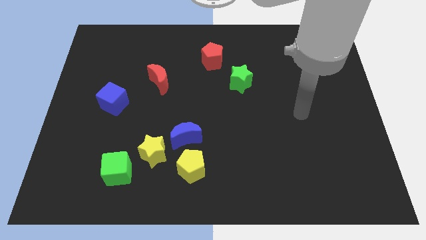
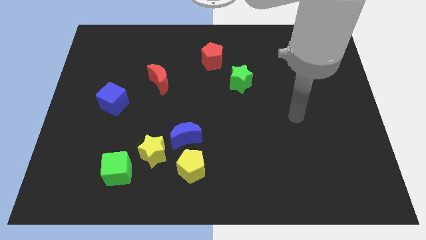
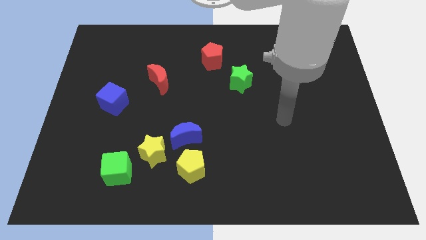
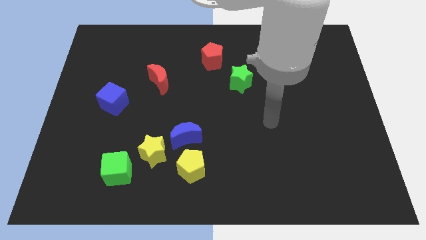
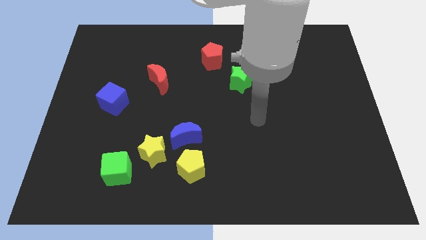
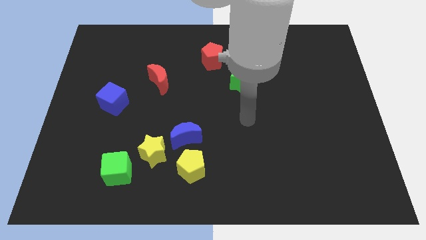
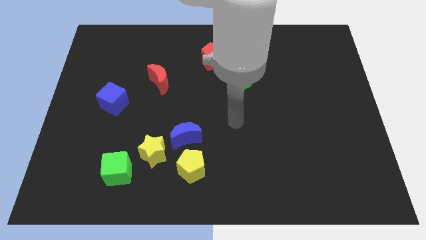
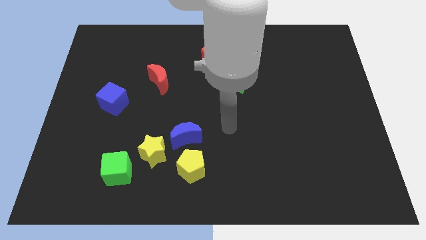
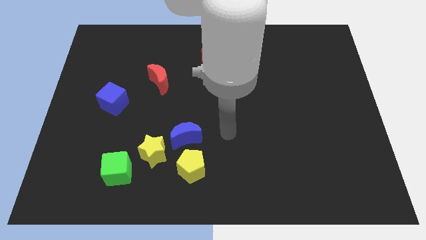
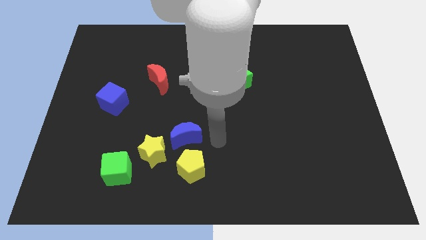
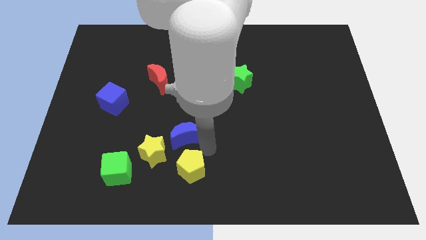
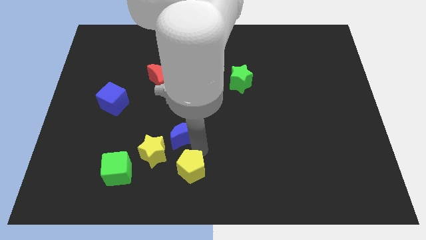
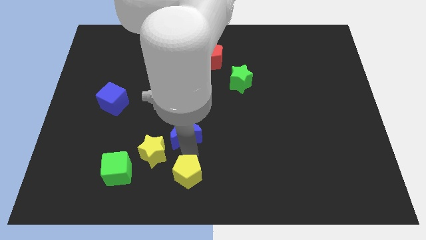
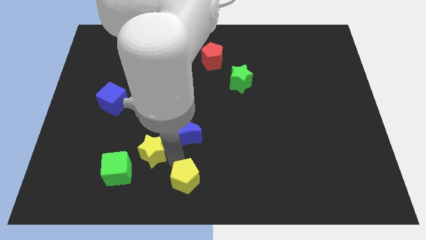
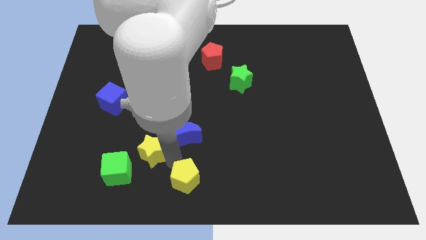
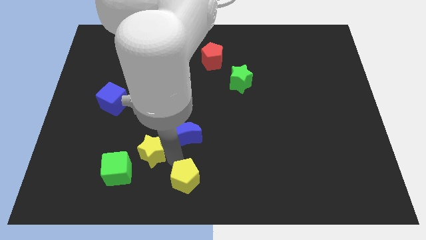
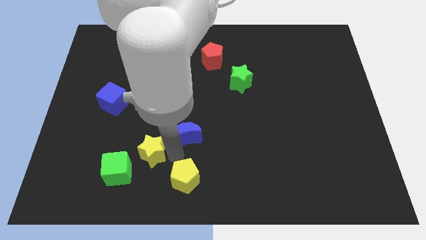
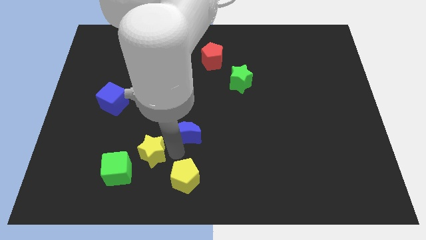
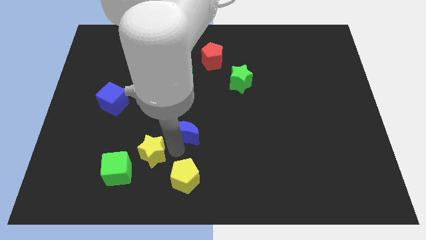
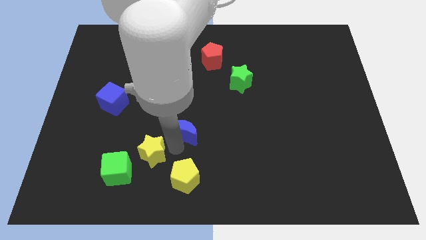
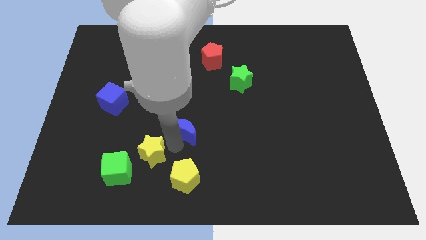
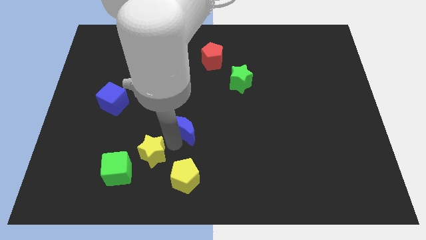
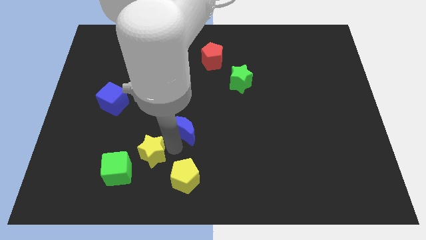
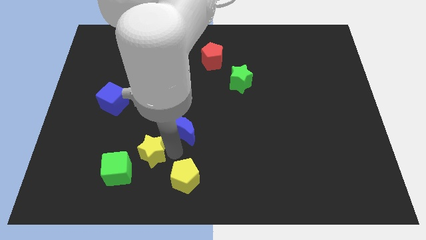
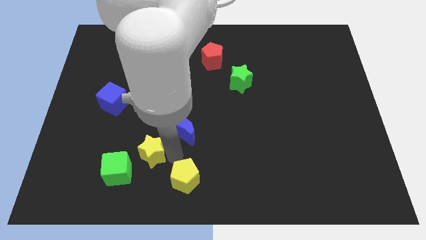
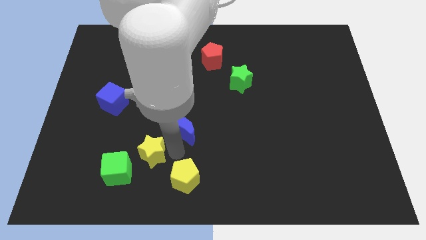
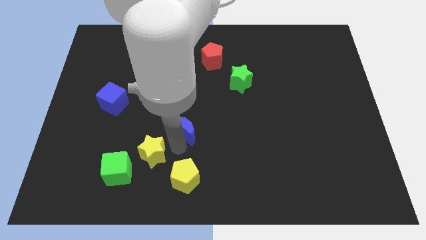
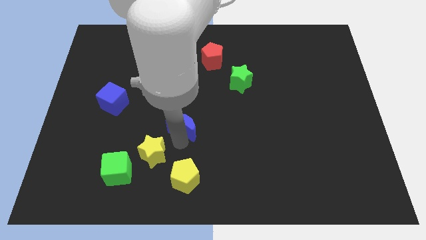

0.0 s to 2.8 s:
move the blue moon away from the yellow star and yellow pentagon

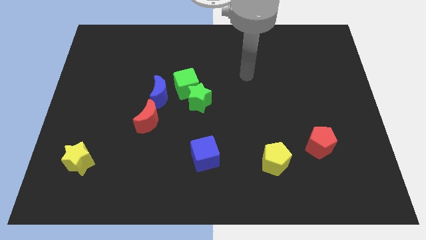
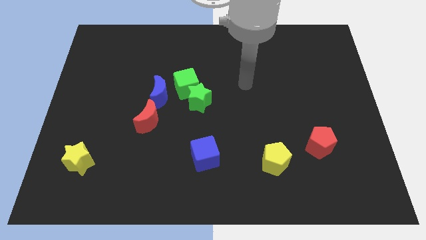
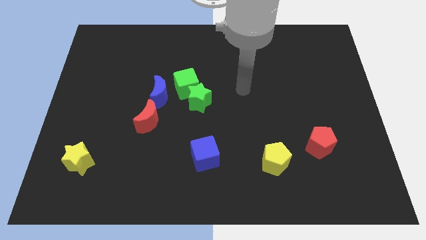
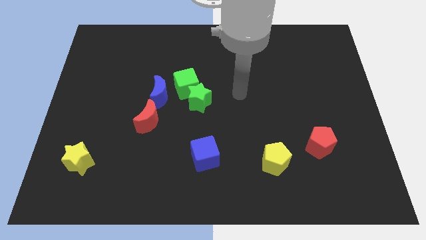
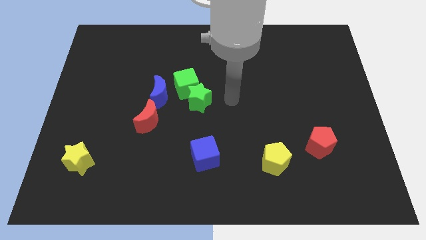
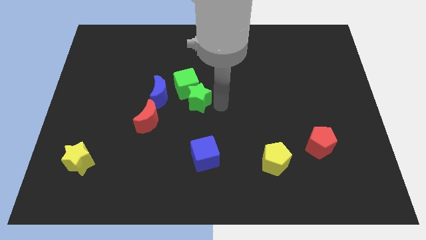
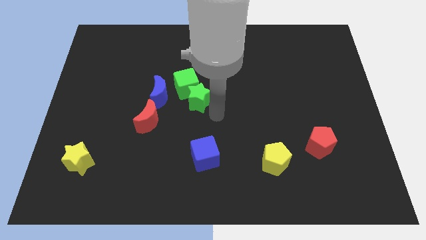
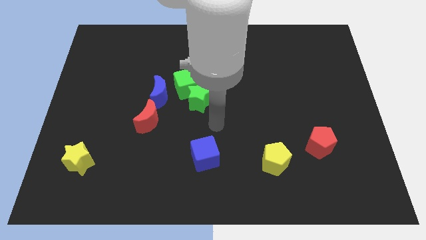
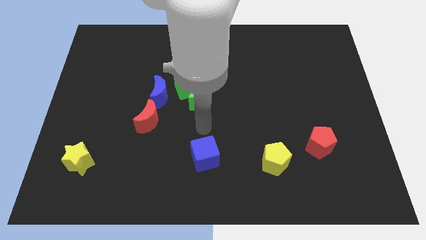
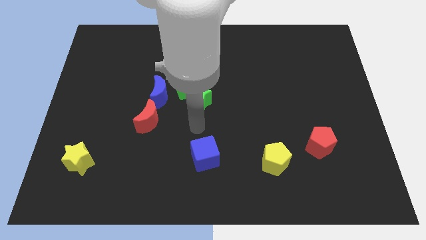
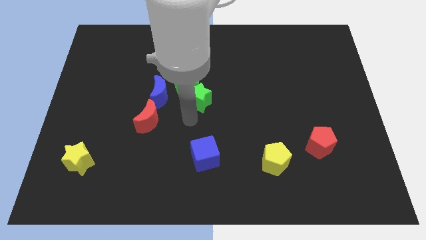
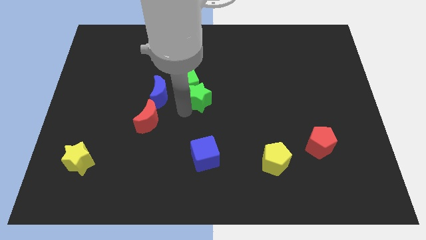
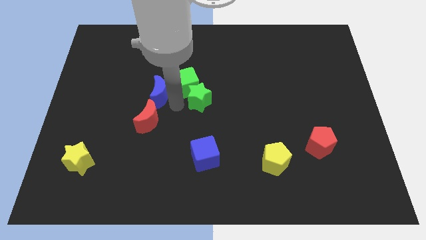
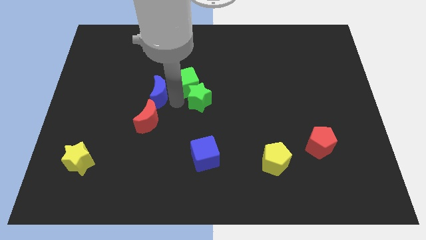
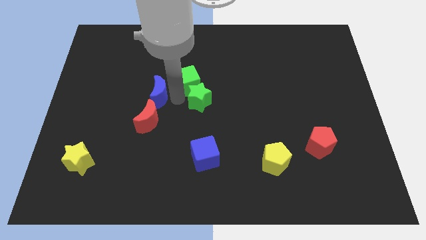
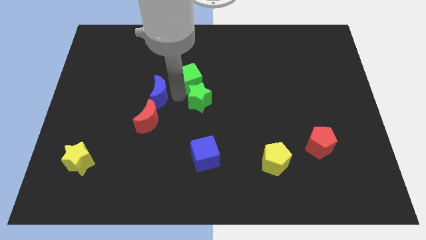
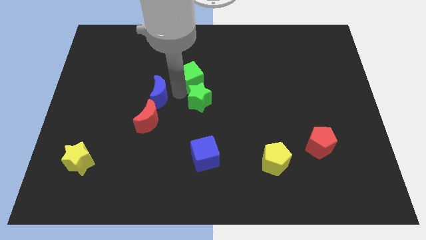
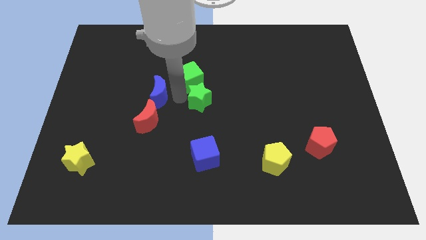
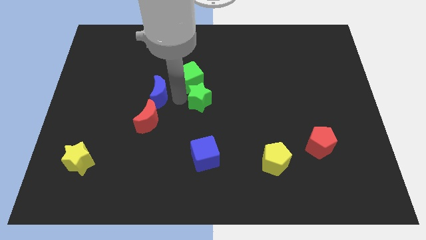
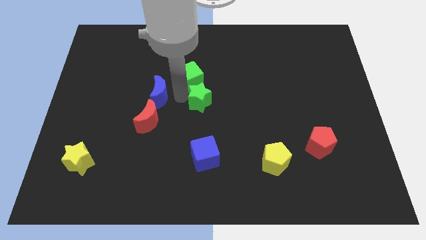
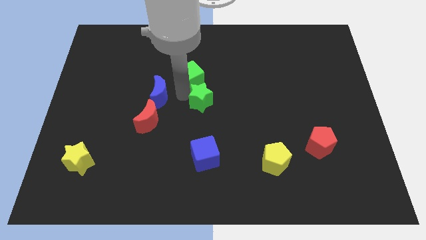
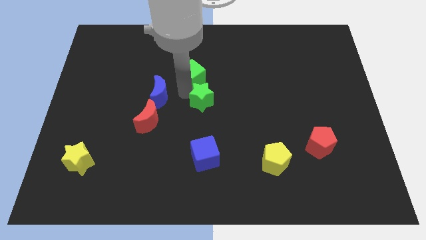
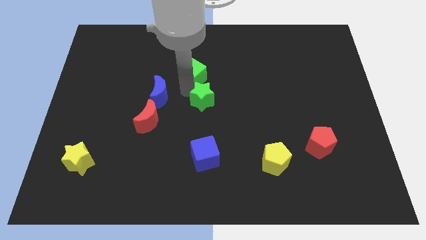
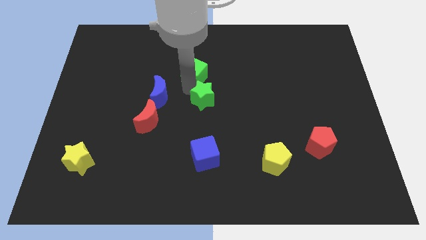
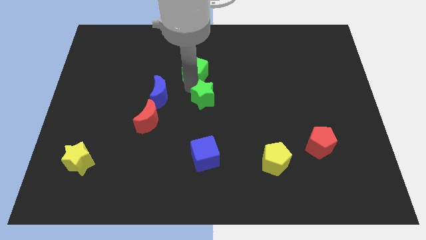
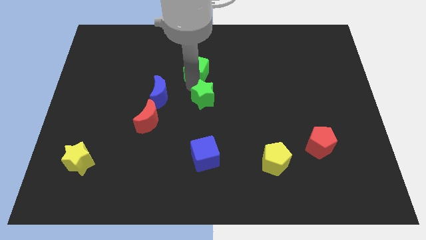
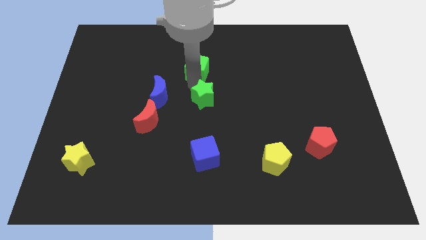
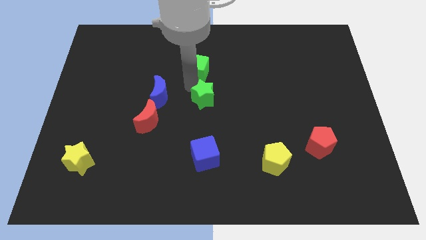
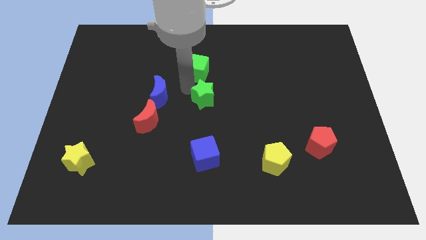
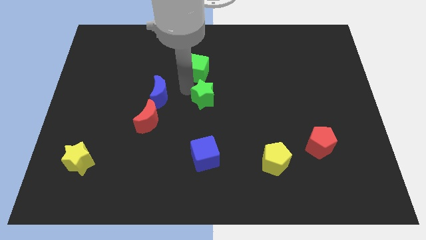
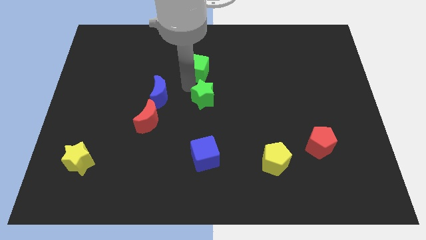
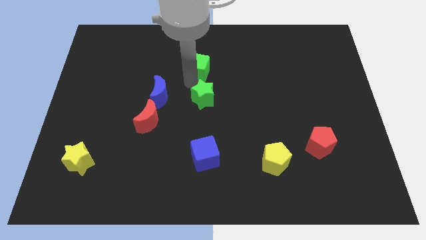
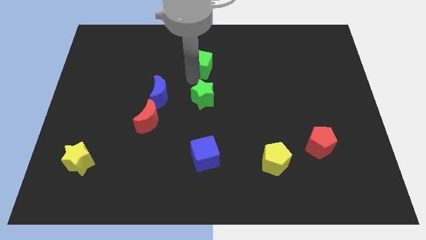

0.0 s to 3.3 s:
move the green cube away from the green star and blue moon

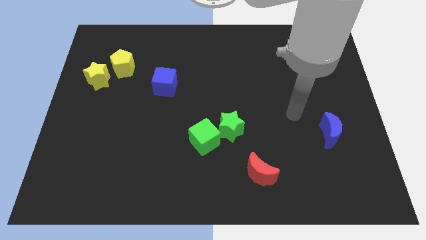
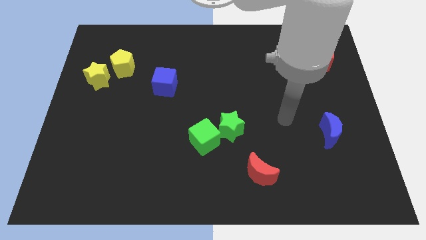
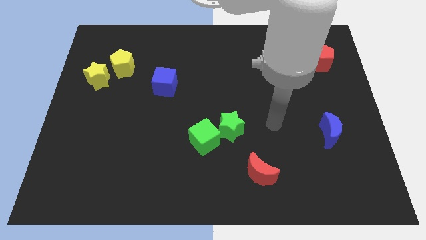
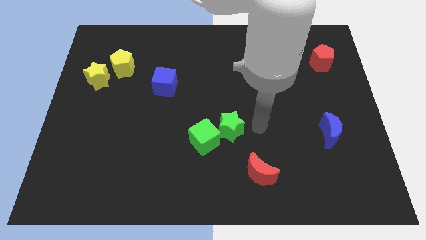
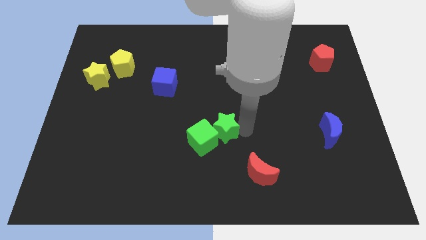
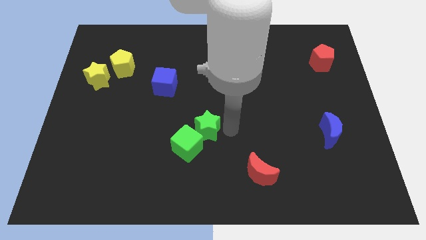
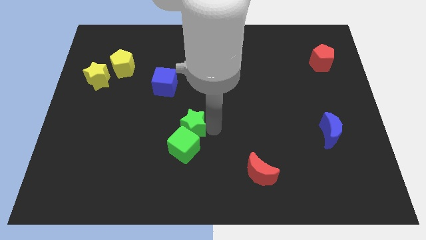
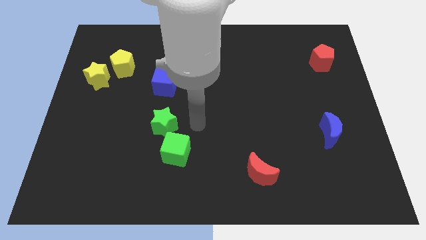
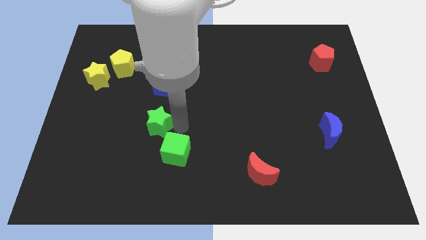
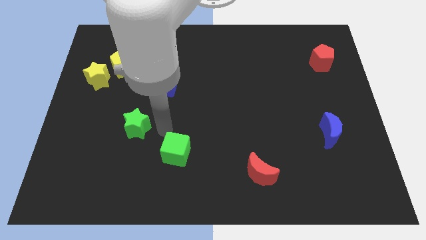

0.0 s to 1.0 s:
pull the green cube apart from the green star

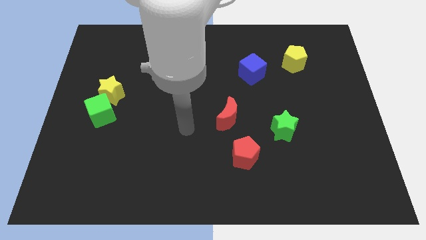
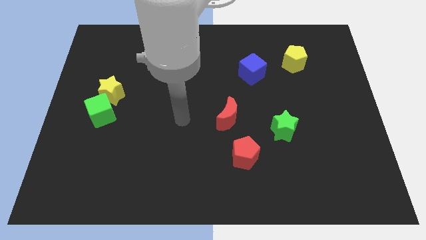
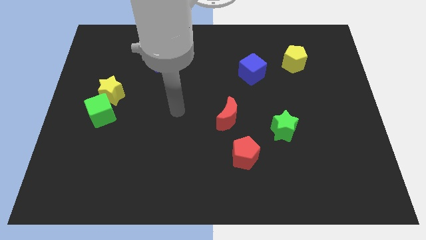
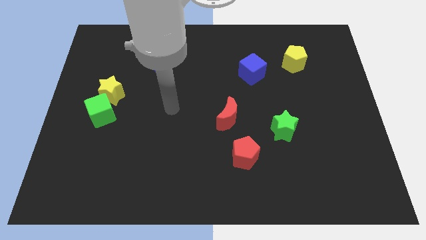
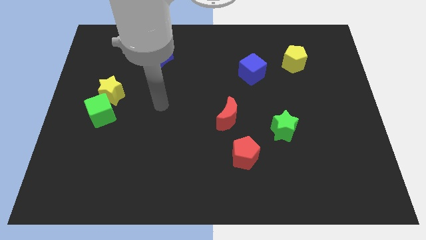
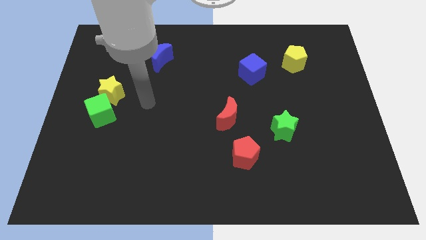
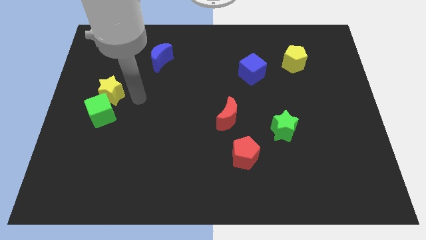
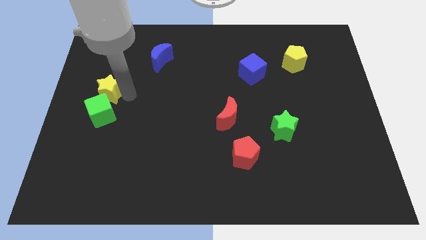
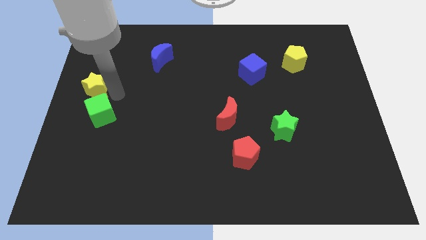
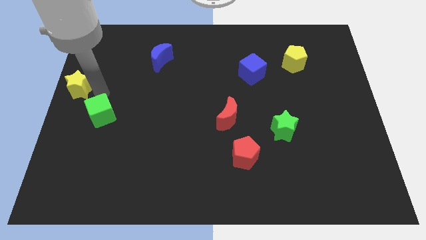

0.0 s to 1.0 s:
pull the green cube apart from the yellow star

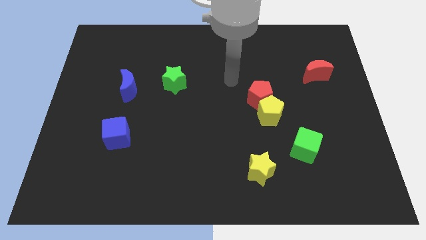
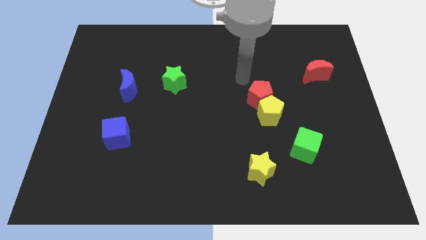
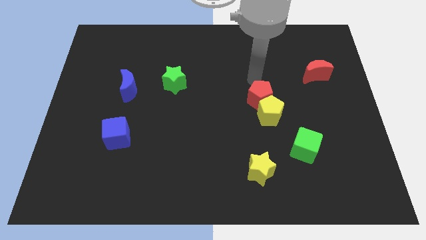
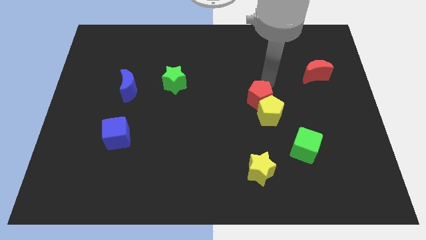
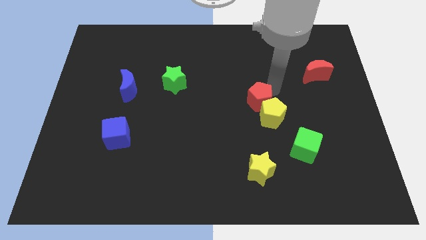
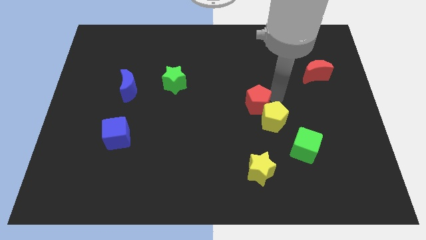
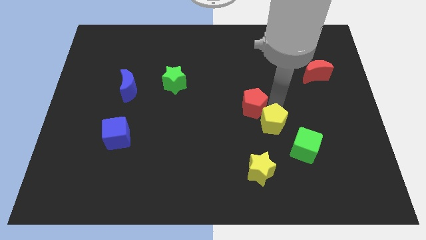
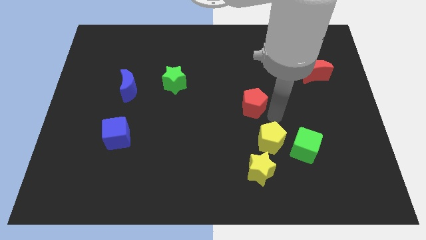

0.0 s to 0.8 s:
pull the red pentagon apart from the yellow pentagon

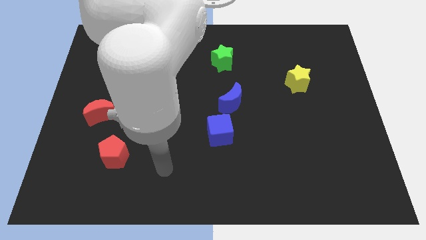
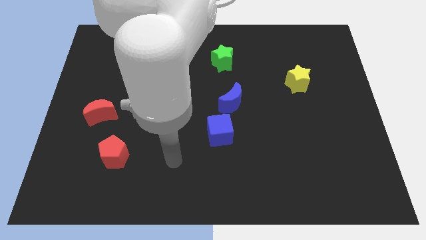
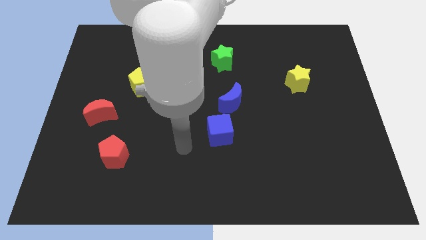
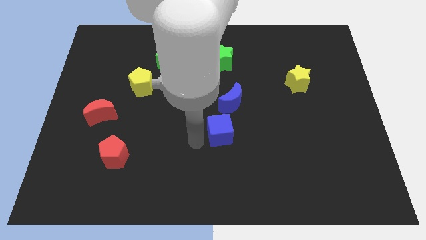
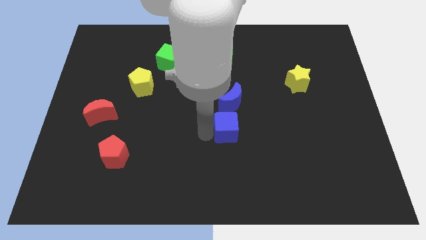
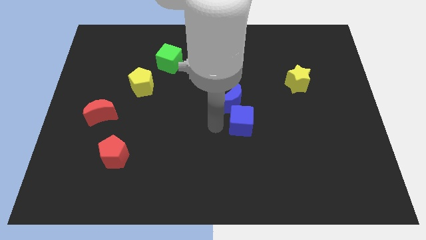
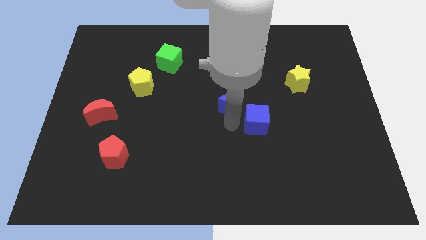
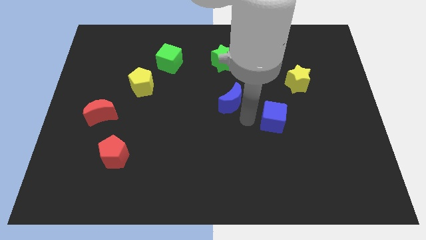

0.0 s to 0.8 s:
pull the blue moon apart from the blue cube
